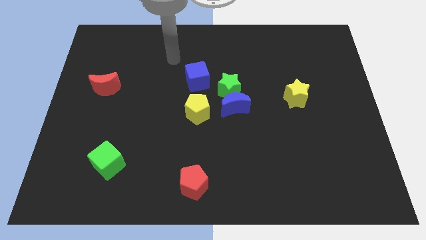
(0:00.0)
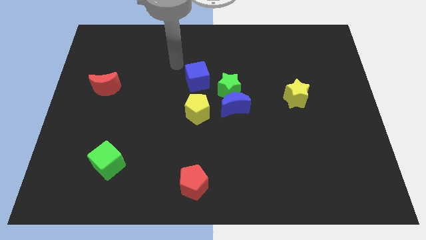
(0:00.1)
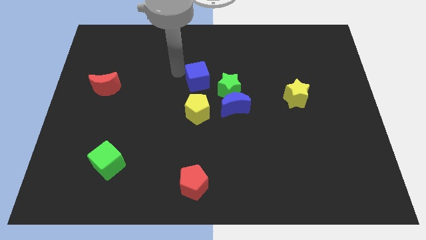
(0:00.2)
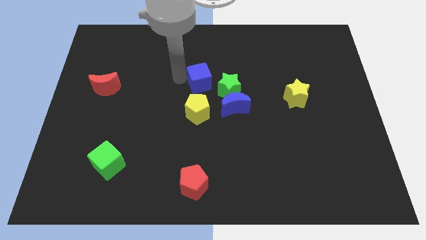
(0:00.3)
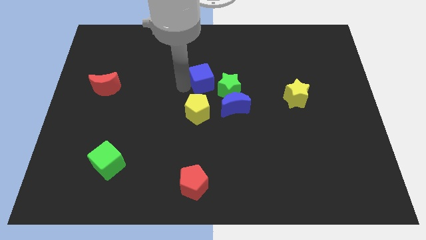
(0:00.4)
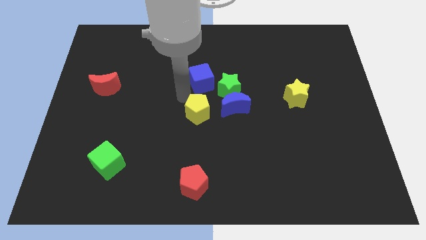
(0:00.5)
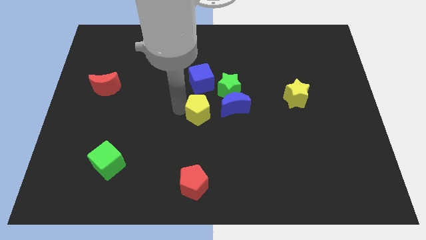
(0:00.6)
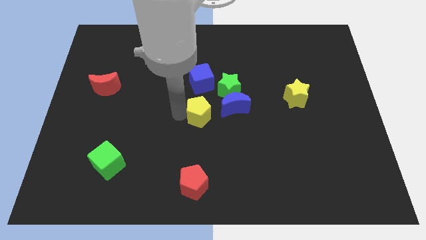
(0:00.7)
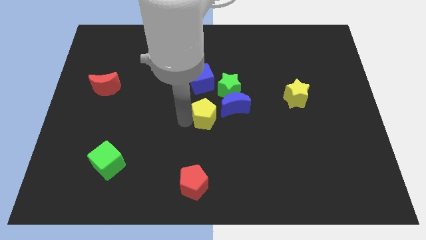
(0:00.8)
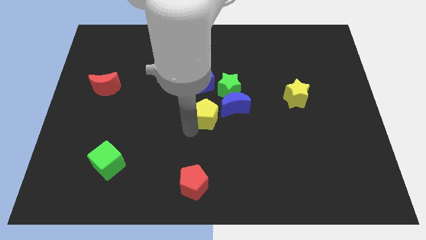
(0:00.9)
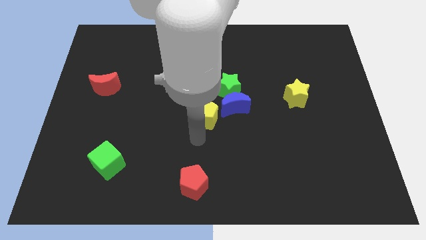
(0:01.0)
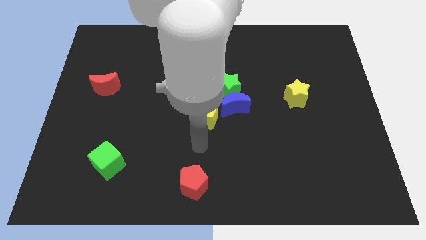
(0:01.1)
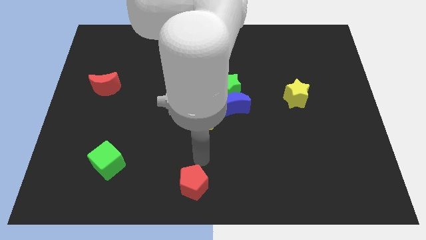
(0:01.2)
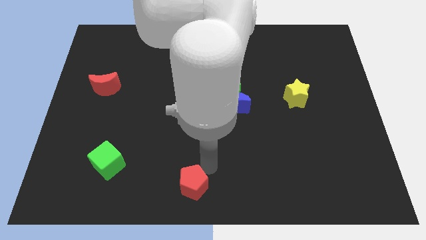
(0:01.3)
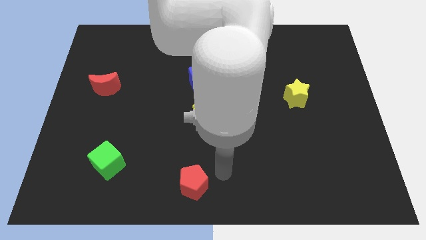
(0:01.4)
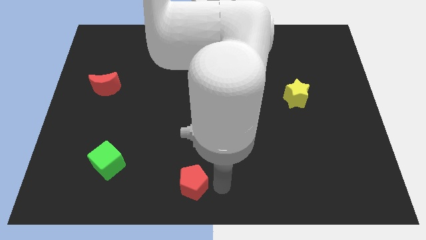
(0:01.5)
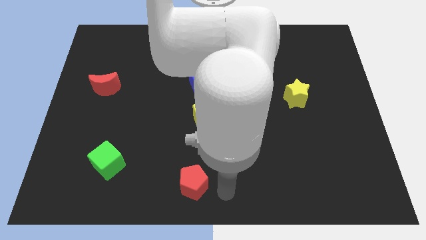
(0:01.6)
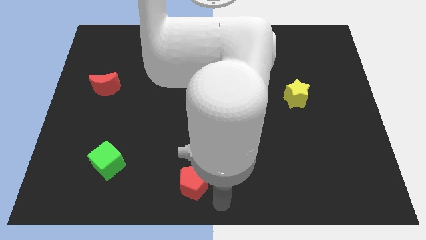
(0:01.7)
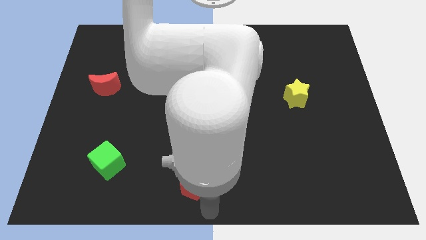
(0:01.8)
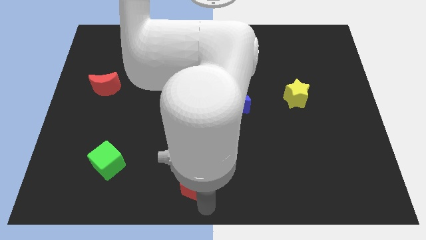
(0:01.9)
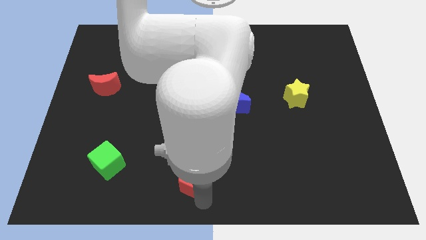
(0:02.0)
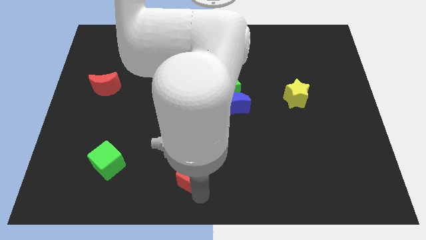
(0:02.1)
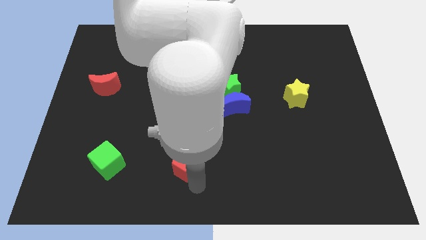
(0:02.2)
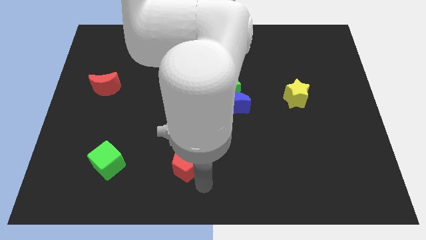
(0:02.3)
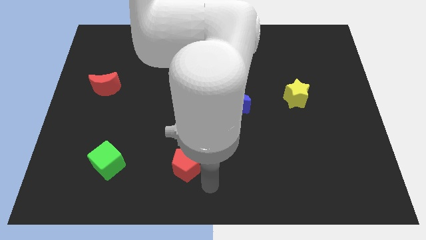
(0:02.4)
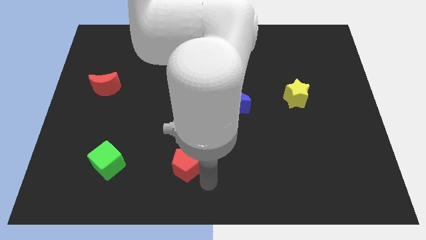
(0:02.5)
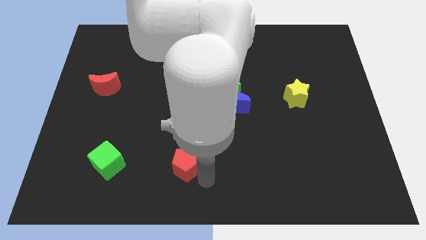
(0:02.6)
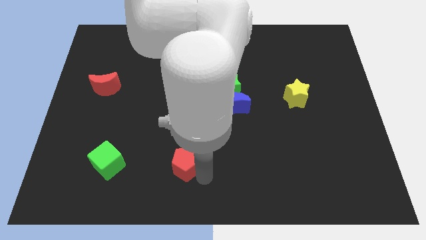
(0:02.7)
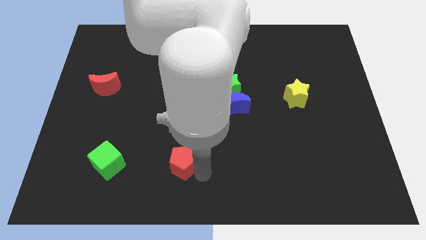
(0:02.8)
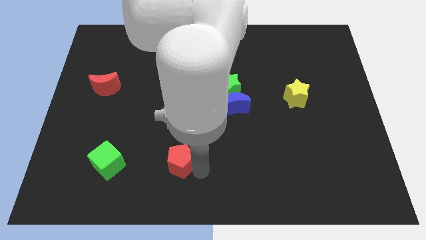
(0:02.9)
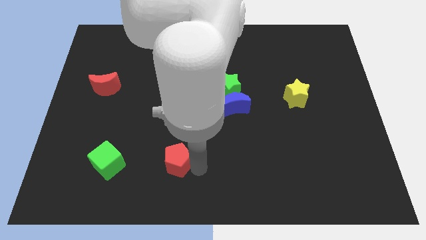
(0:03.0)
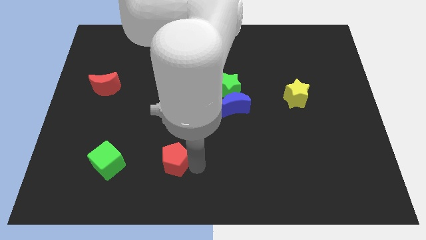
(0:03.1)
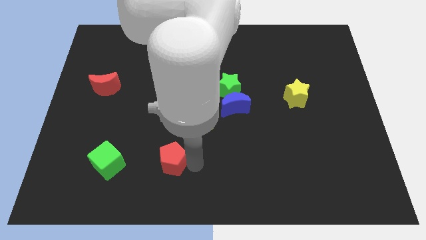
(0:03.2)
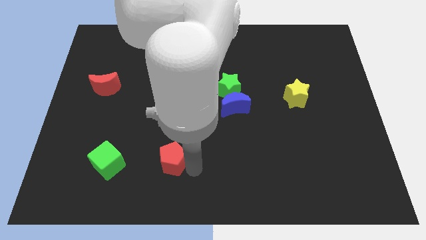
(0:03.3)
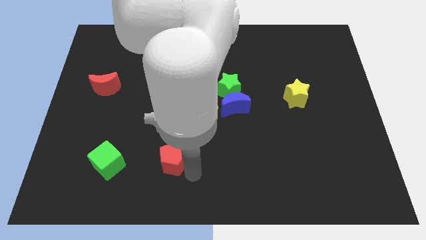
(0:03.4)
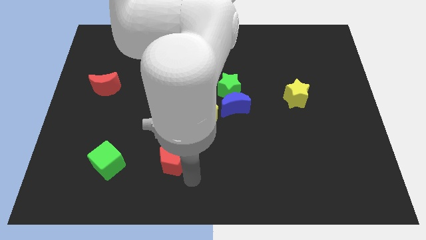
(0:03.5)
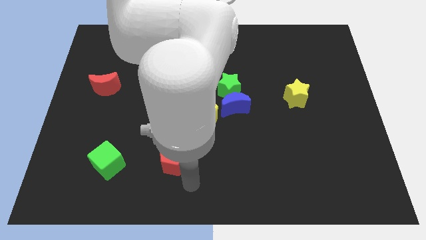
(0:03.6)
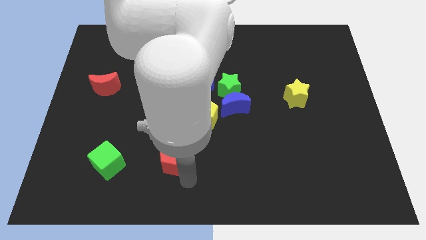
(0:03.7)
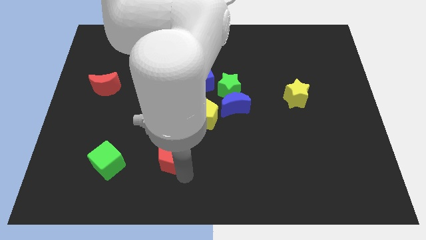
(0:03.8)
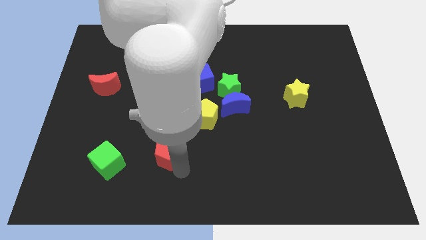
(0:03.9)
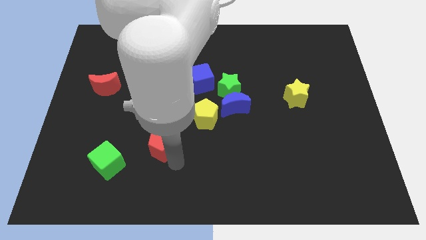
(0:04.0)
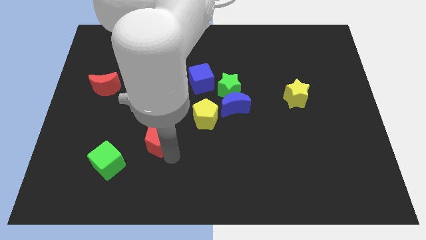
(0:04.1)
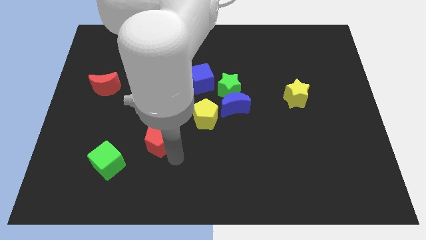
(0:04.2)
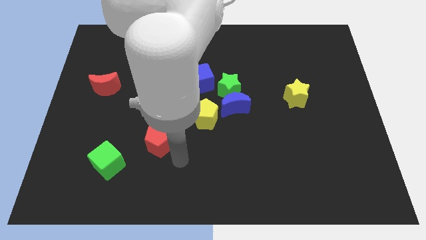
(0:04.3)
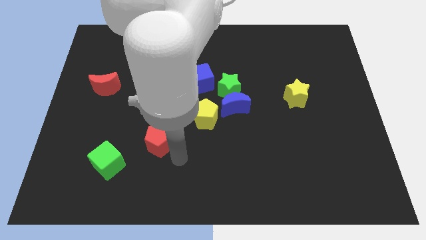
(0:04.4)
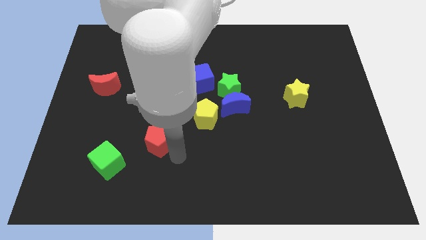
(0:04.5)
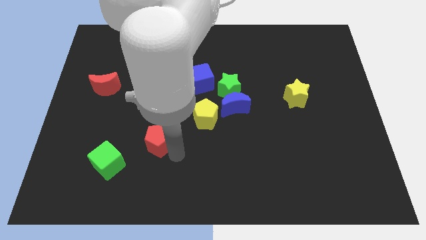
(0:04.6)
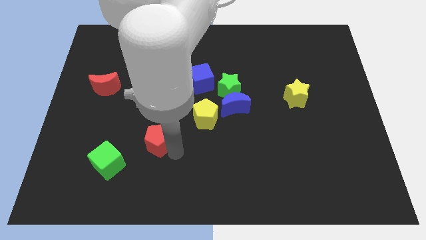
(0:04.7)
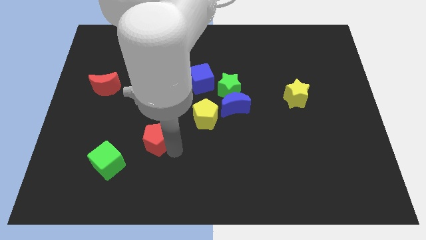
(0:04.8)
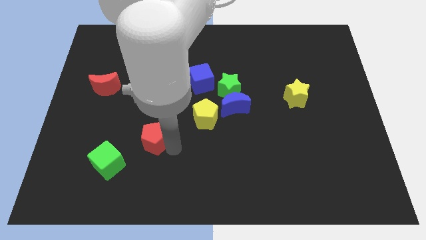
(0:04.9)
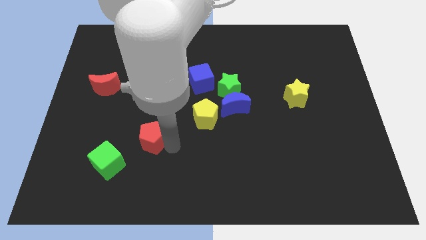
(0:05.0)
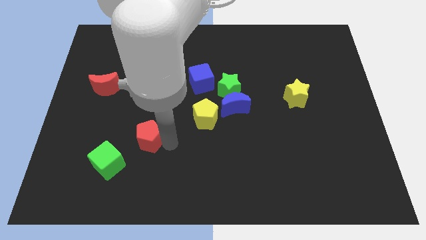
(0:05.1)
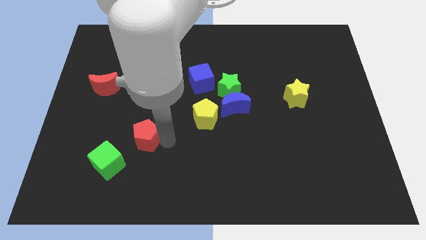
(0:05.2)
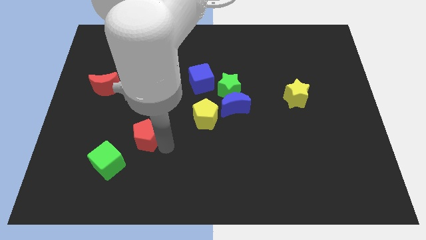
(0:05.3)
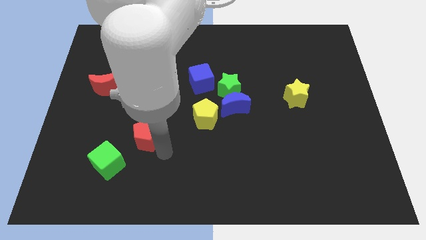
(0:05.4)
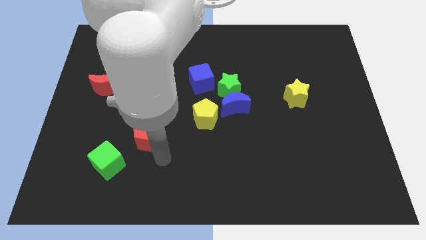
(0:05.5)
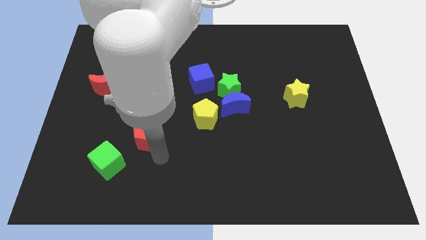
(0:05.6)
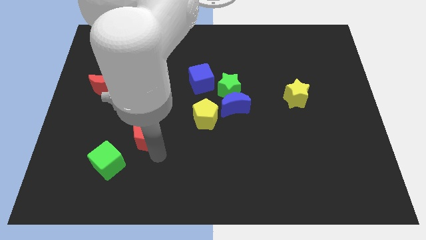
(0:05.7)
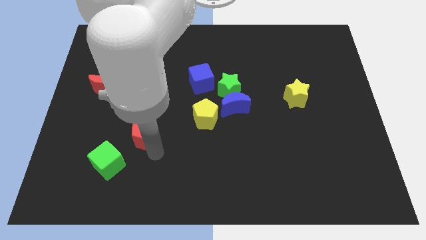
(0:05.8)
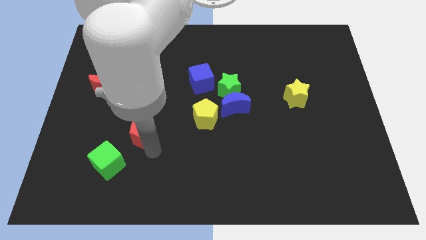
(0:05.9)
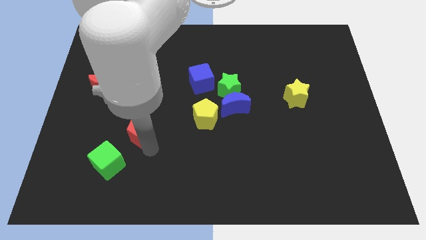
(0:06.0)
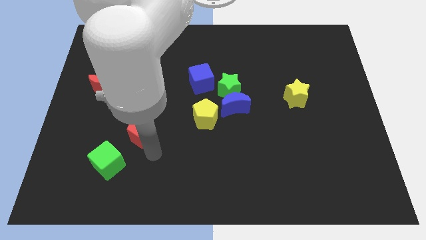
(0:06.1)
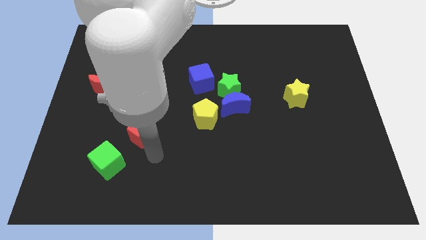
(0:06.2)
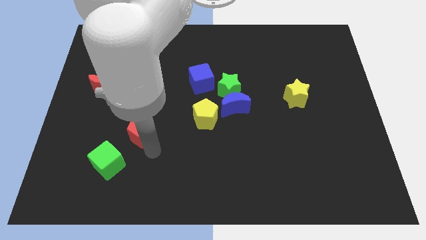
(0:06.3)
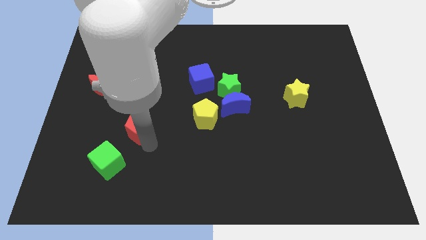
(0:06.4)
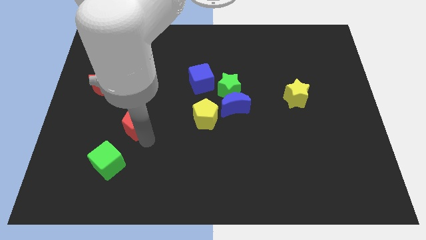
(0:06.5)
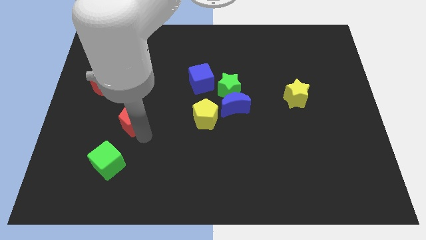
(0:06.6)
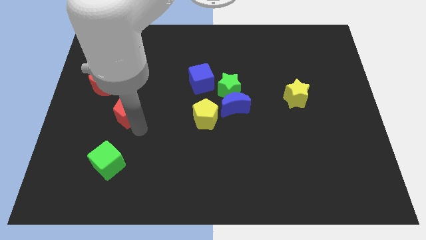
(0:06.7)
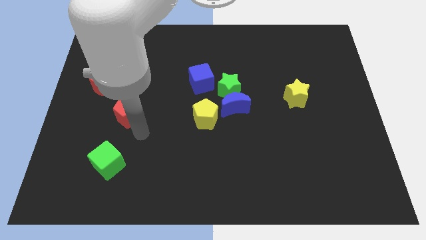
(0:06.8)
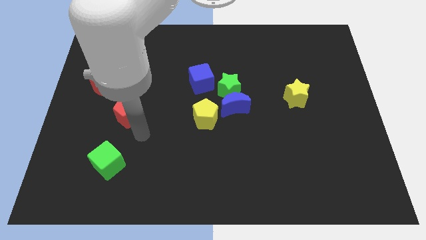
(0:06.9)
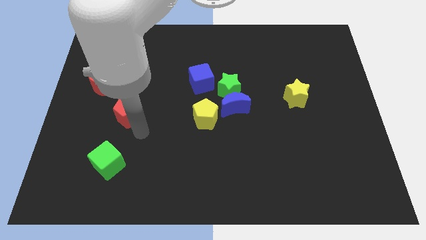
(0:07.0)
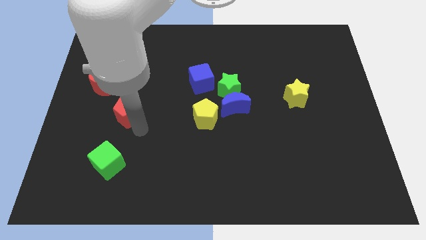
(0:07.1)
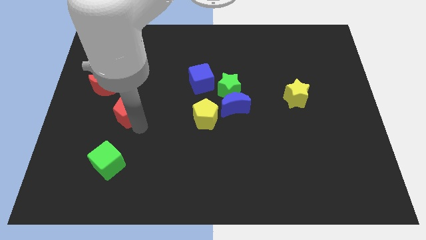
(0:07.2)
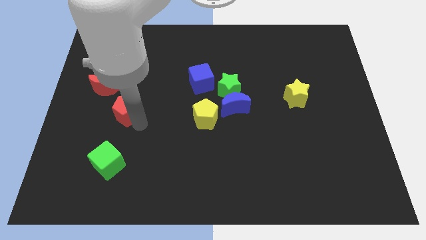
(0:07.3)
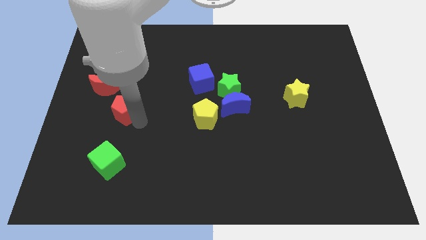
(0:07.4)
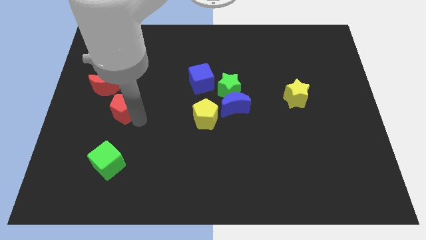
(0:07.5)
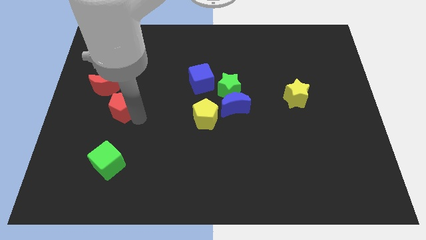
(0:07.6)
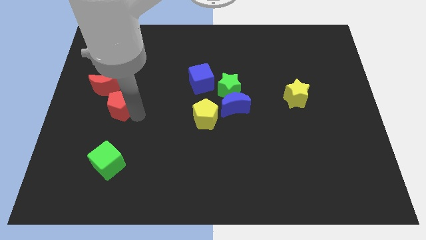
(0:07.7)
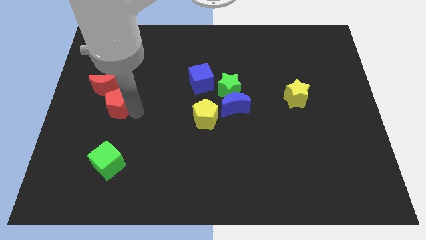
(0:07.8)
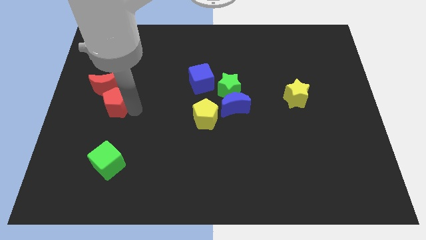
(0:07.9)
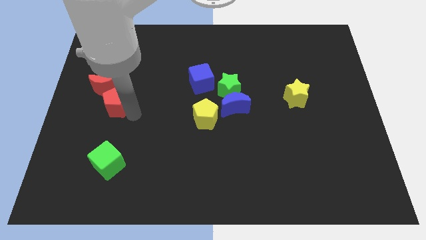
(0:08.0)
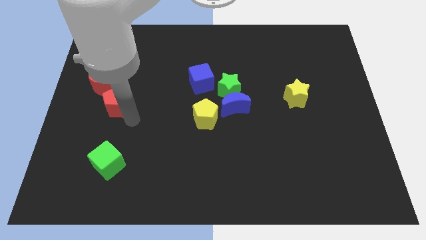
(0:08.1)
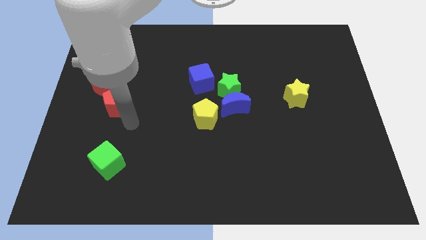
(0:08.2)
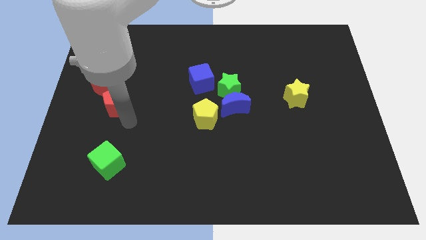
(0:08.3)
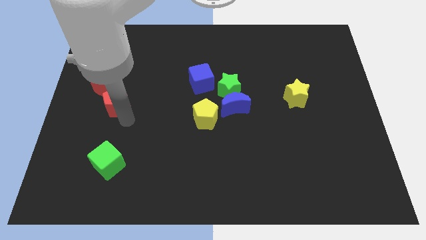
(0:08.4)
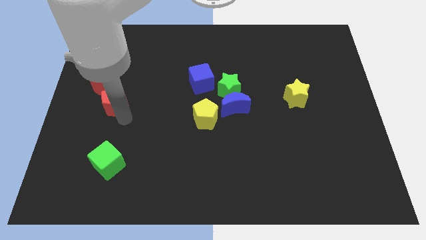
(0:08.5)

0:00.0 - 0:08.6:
move the red pentagon to the red moon
